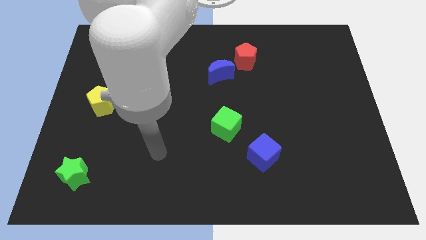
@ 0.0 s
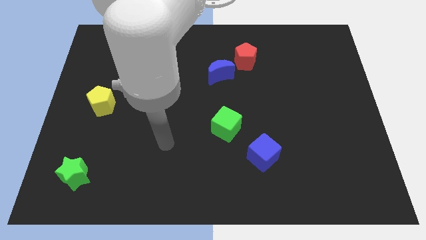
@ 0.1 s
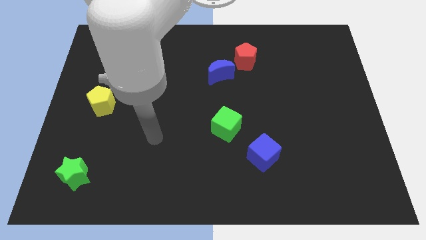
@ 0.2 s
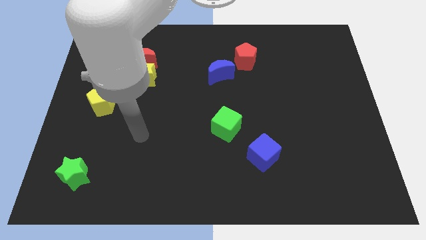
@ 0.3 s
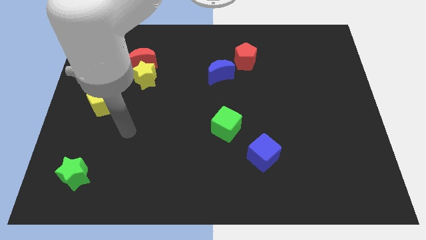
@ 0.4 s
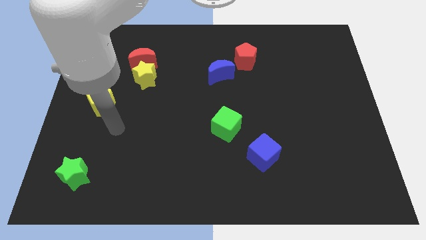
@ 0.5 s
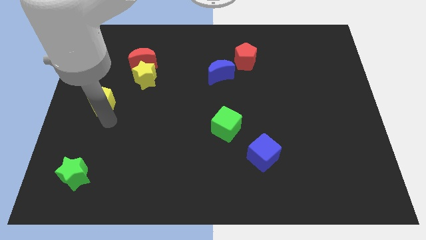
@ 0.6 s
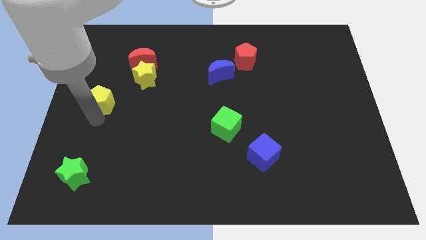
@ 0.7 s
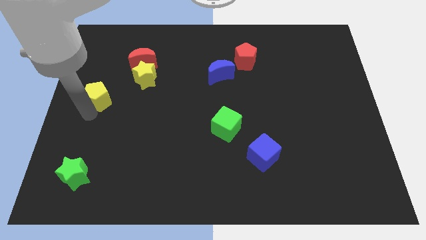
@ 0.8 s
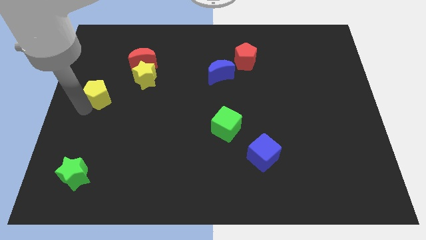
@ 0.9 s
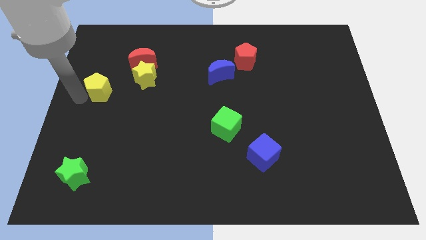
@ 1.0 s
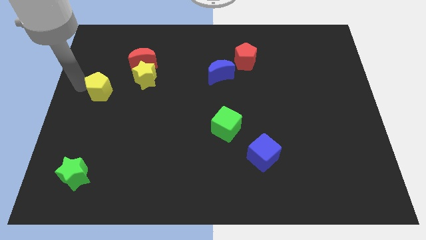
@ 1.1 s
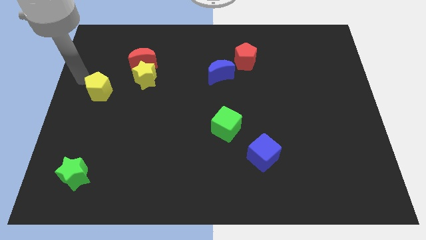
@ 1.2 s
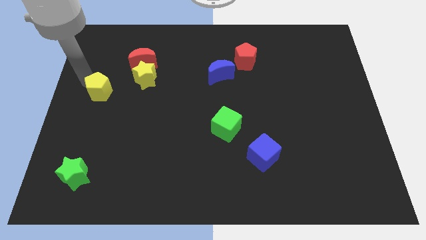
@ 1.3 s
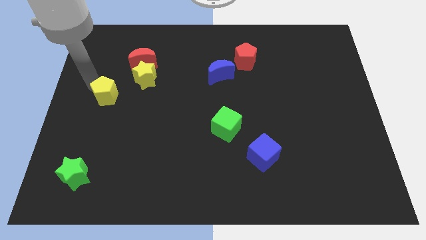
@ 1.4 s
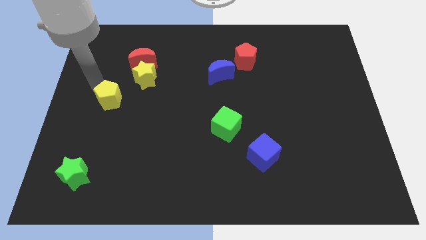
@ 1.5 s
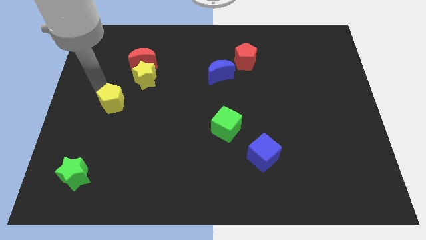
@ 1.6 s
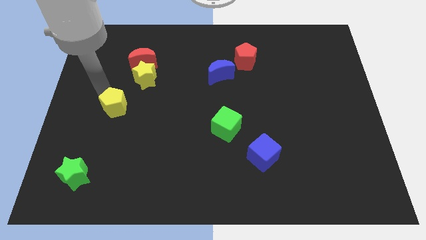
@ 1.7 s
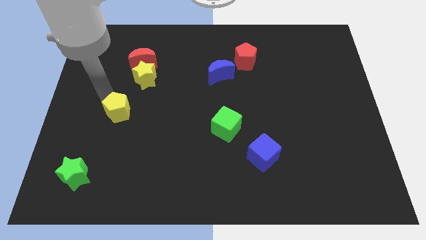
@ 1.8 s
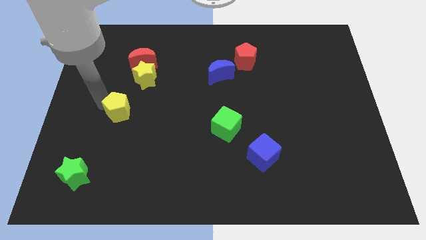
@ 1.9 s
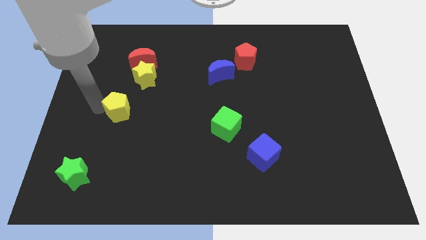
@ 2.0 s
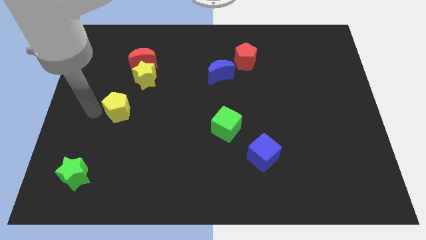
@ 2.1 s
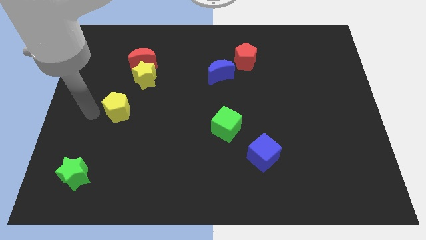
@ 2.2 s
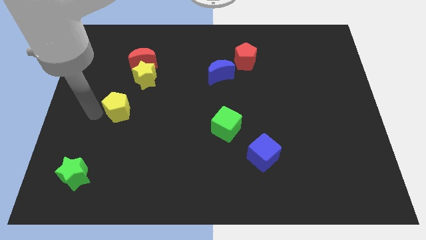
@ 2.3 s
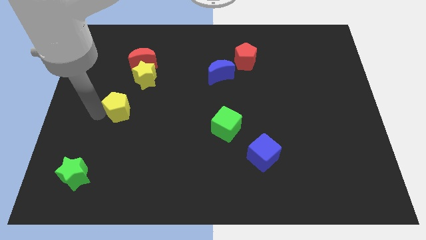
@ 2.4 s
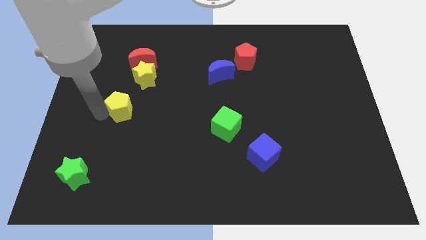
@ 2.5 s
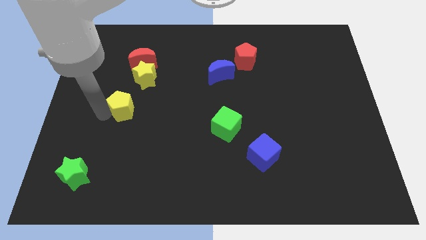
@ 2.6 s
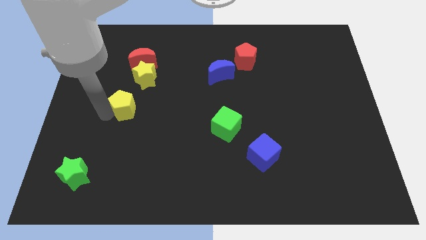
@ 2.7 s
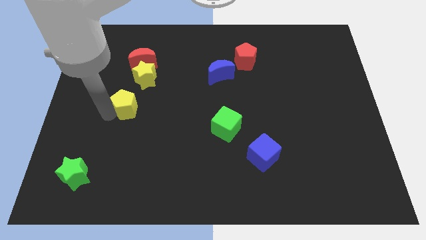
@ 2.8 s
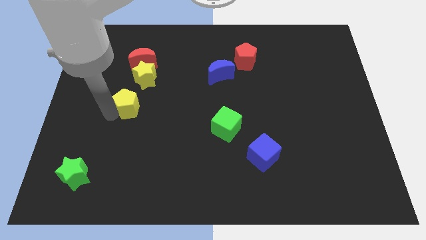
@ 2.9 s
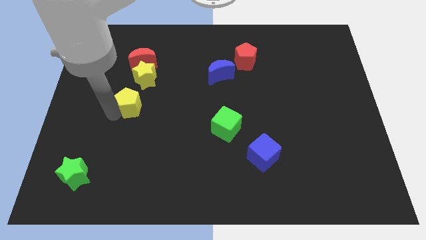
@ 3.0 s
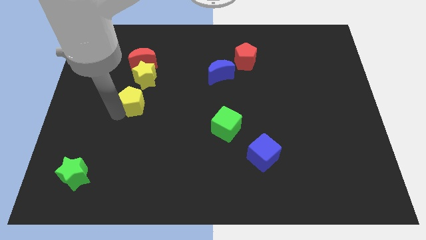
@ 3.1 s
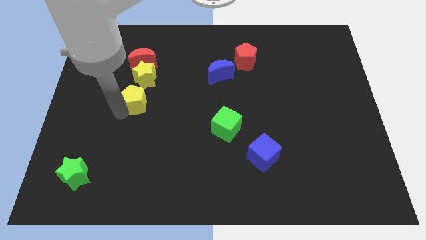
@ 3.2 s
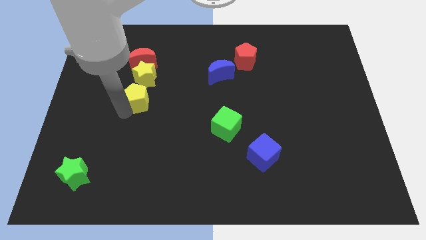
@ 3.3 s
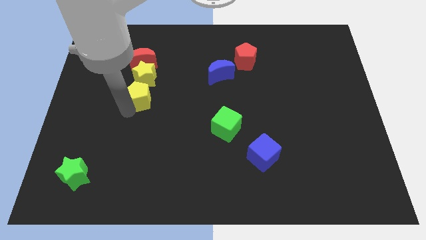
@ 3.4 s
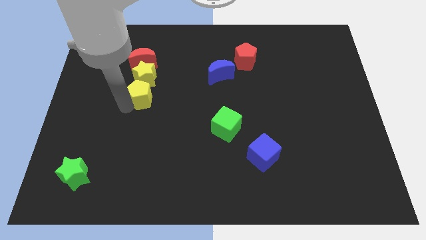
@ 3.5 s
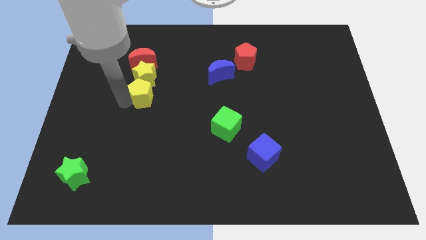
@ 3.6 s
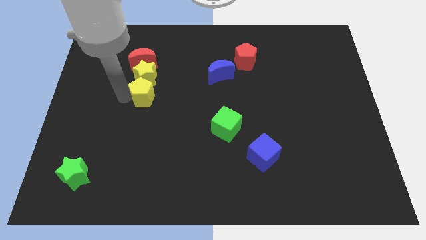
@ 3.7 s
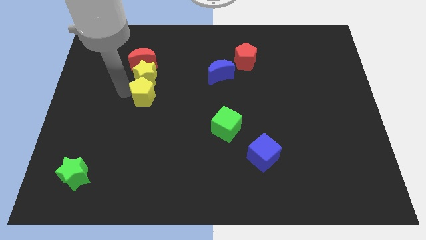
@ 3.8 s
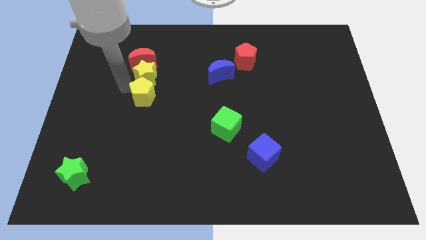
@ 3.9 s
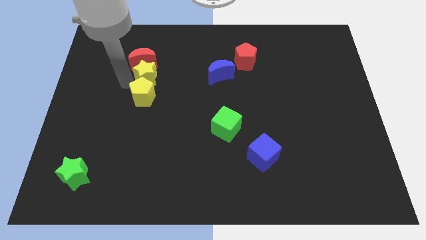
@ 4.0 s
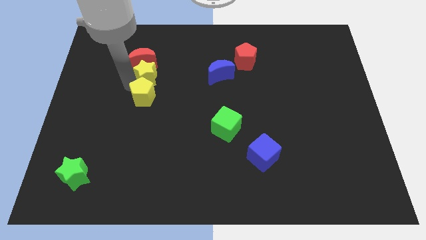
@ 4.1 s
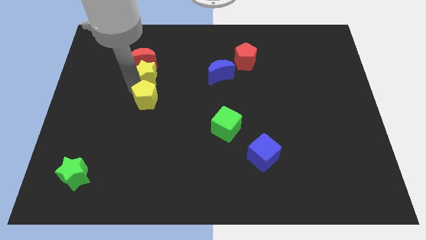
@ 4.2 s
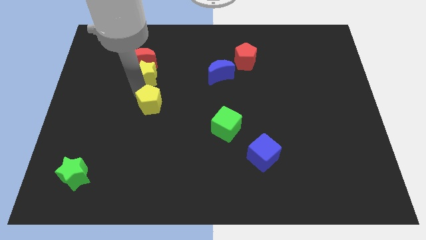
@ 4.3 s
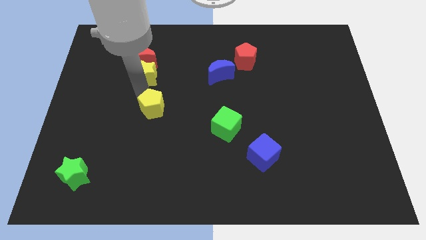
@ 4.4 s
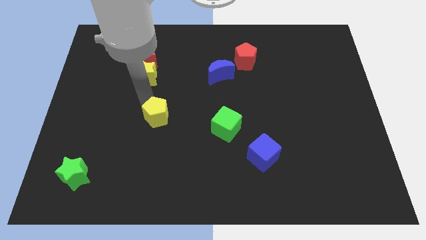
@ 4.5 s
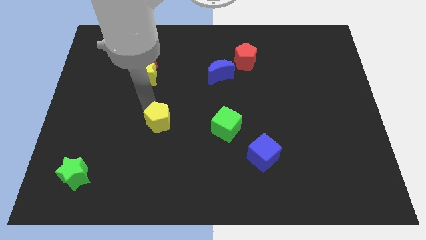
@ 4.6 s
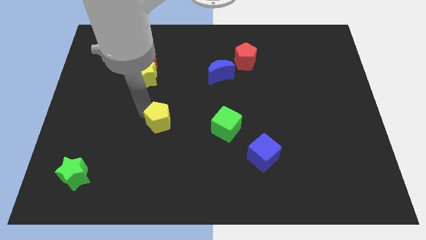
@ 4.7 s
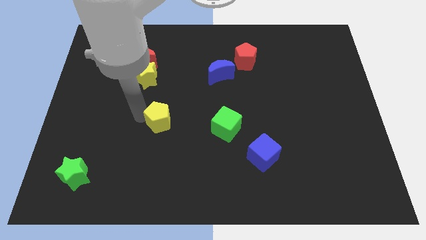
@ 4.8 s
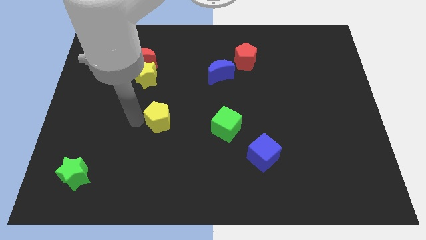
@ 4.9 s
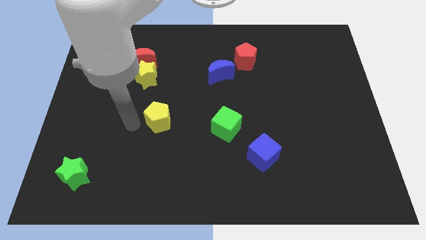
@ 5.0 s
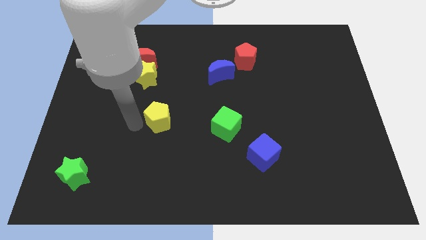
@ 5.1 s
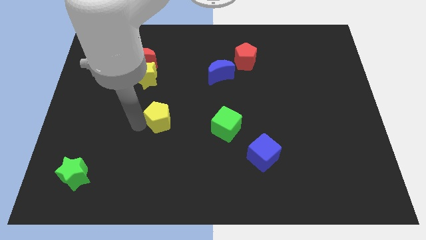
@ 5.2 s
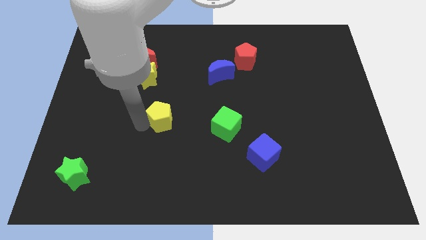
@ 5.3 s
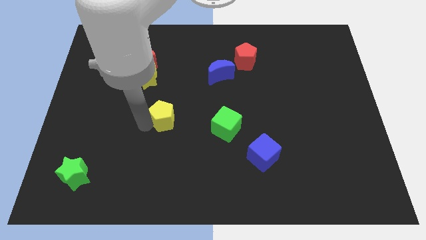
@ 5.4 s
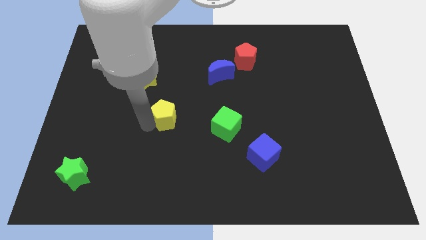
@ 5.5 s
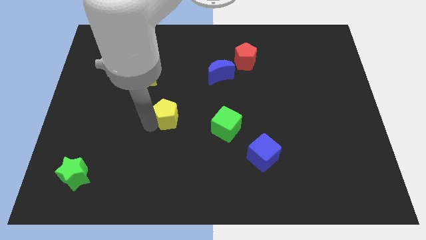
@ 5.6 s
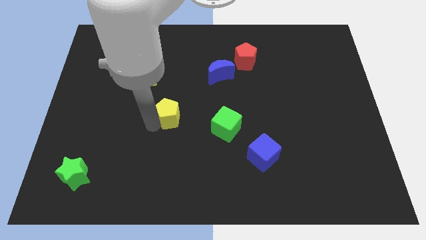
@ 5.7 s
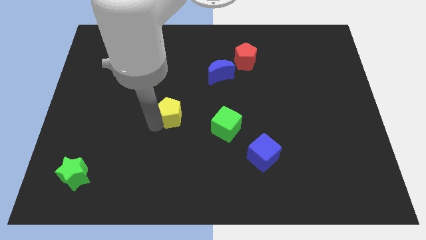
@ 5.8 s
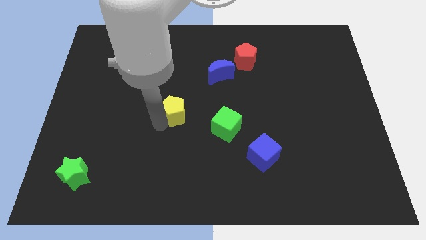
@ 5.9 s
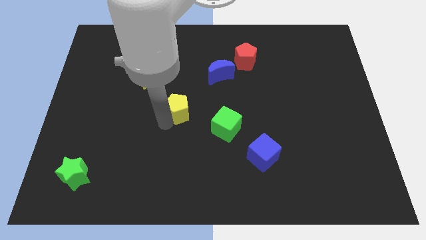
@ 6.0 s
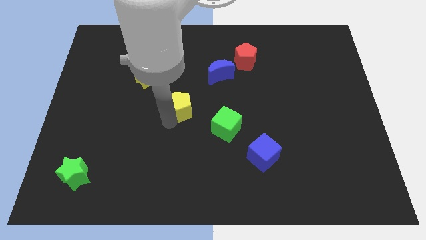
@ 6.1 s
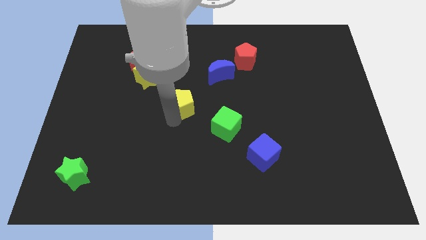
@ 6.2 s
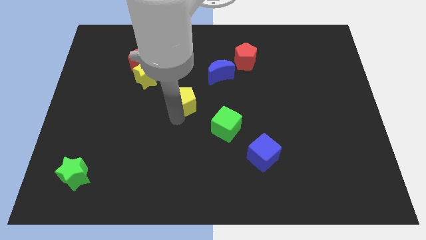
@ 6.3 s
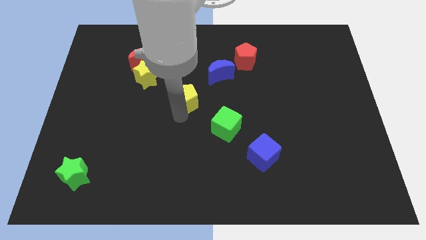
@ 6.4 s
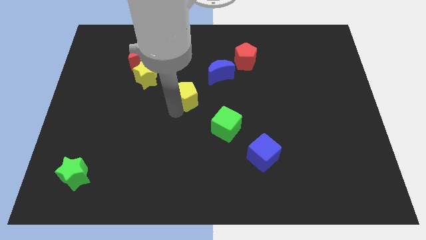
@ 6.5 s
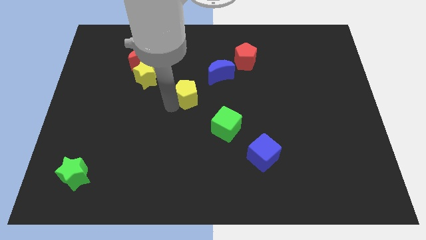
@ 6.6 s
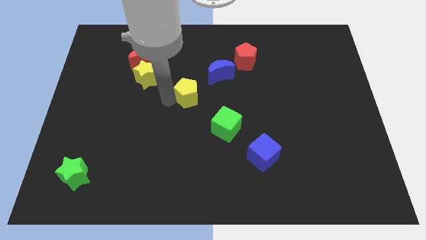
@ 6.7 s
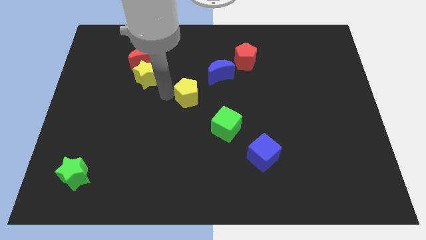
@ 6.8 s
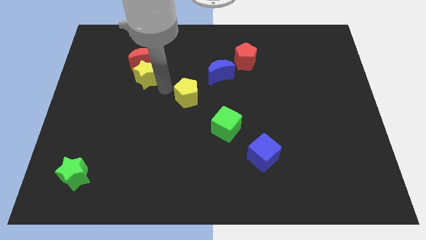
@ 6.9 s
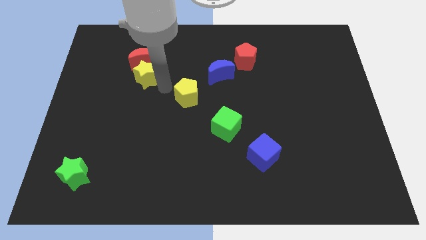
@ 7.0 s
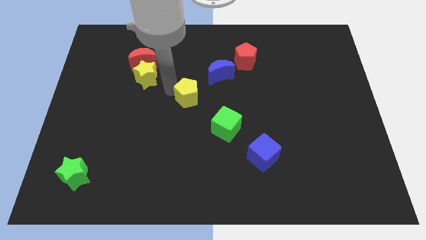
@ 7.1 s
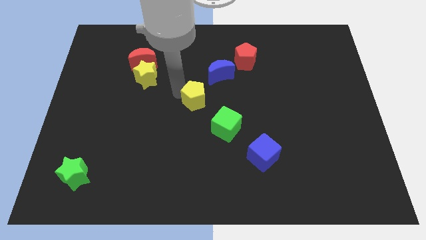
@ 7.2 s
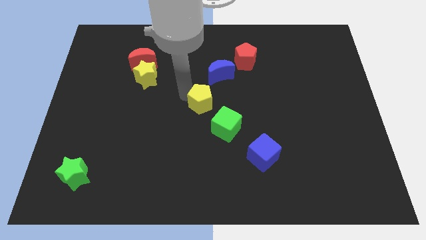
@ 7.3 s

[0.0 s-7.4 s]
move the yellow pentagon to the bottom side of the blue moon
